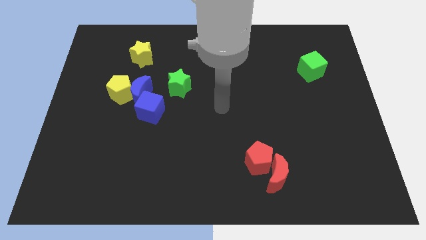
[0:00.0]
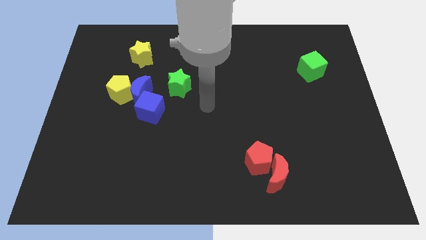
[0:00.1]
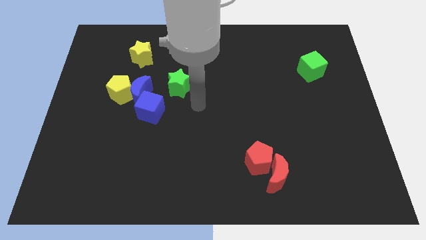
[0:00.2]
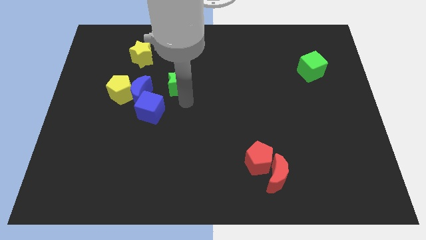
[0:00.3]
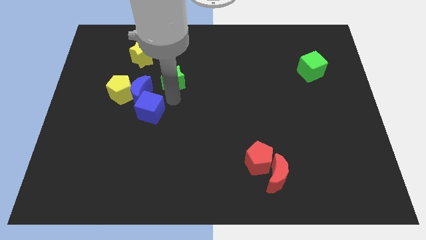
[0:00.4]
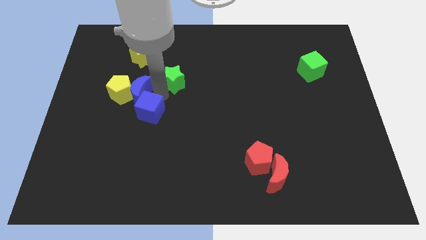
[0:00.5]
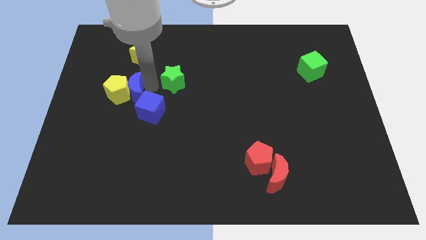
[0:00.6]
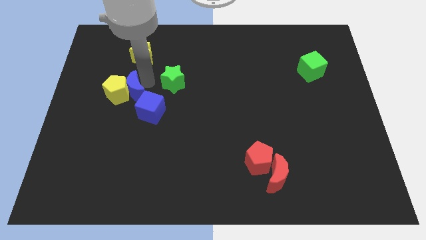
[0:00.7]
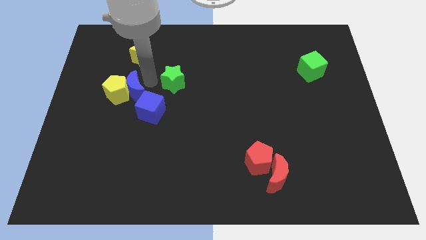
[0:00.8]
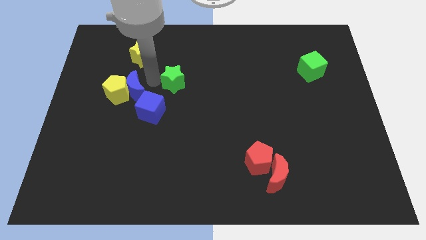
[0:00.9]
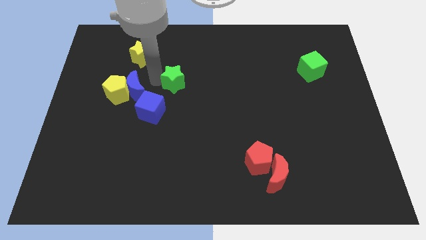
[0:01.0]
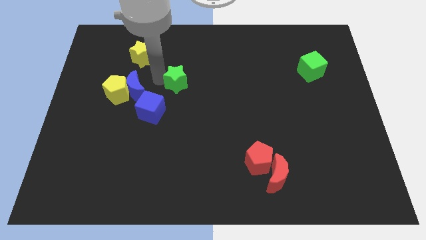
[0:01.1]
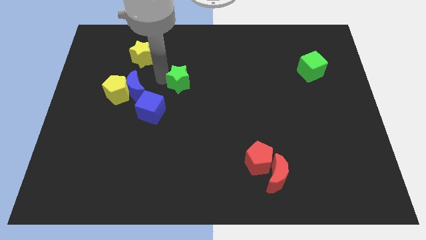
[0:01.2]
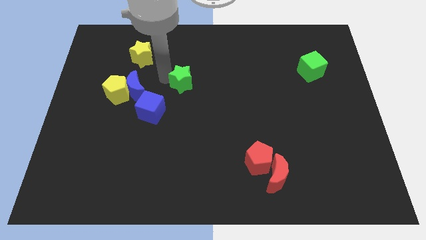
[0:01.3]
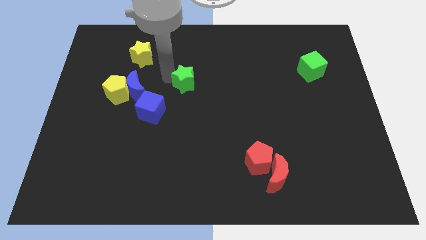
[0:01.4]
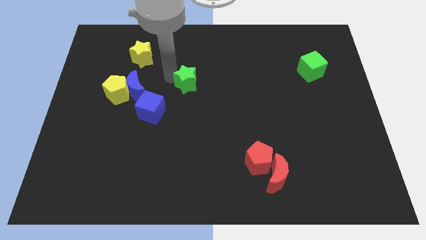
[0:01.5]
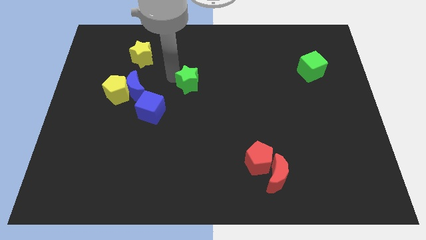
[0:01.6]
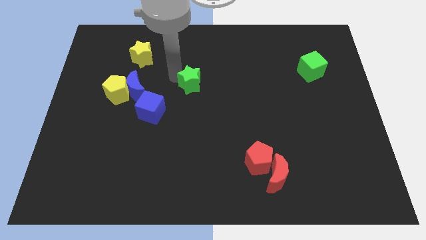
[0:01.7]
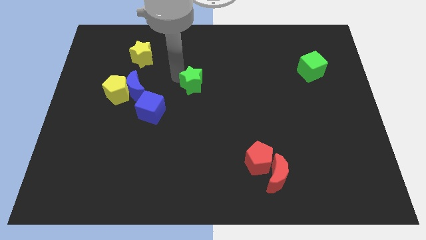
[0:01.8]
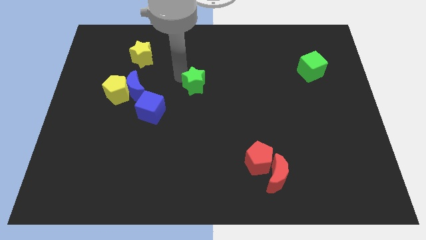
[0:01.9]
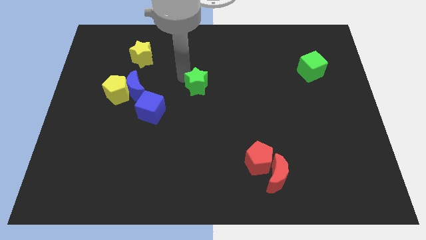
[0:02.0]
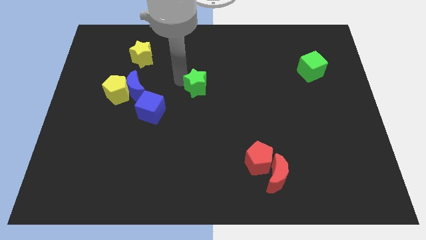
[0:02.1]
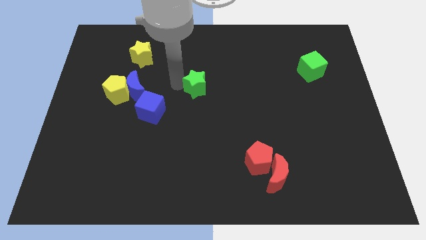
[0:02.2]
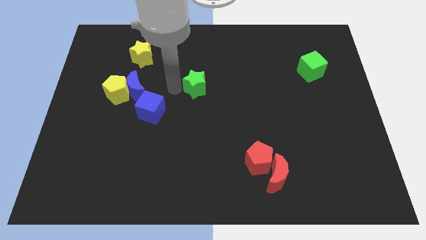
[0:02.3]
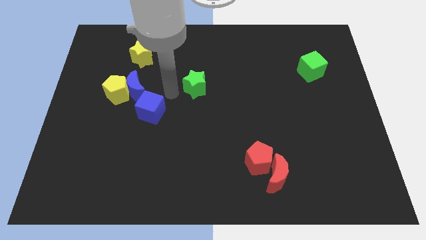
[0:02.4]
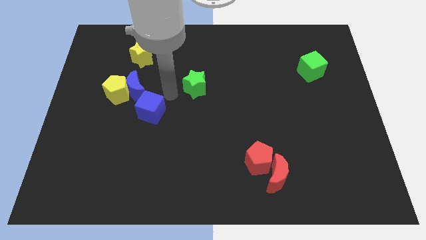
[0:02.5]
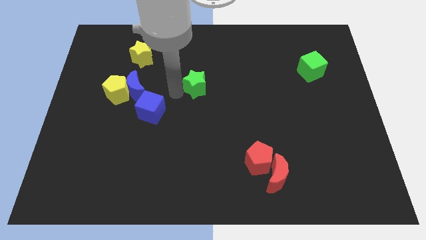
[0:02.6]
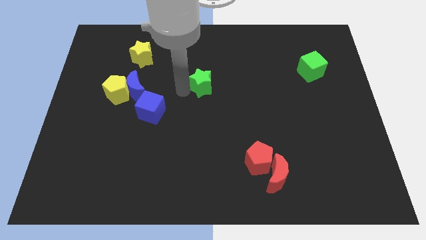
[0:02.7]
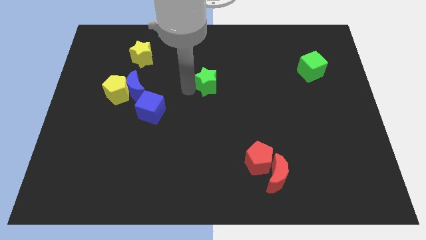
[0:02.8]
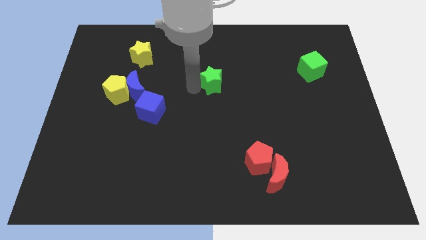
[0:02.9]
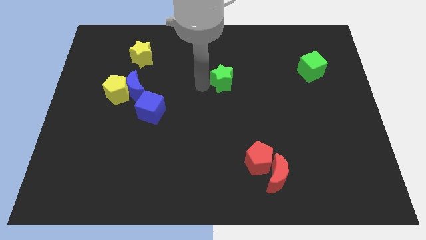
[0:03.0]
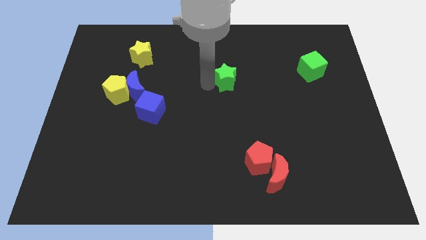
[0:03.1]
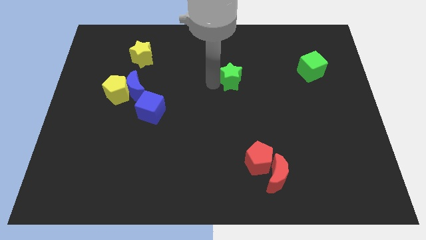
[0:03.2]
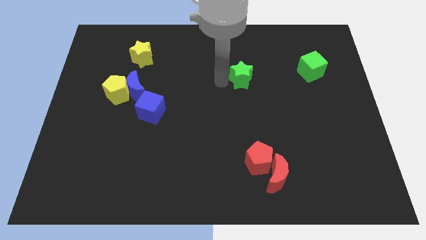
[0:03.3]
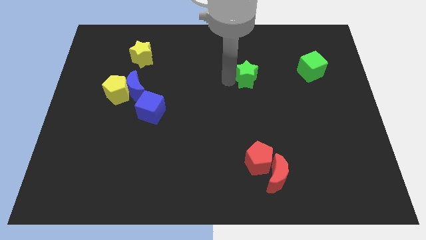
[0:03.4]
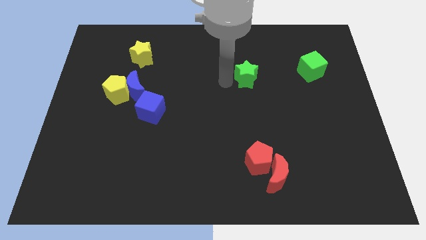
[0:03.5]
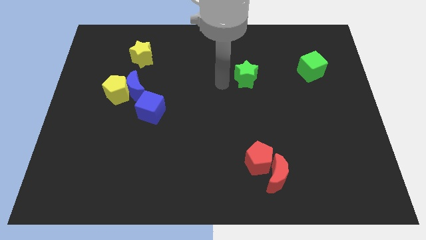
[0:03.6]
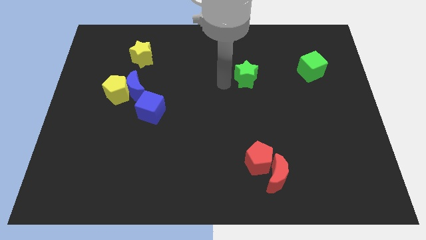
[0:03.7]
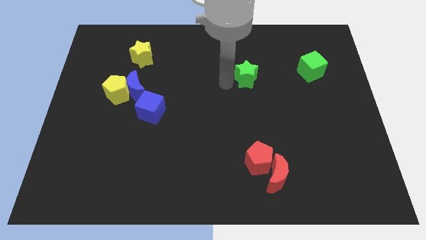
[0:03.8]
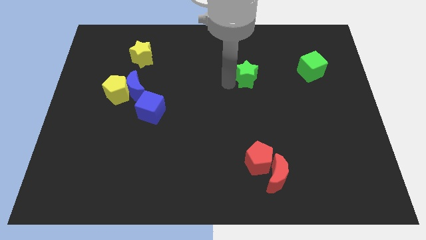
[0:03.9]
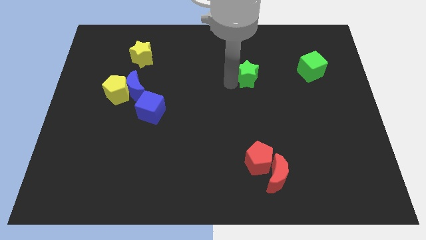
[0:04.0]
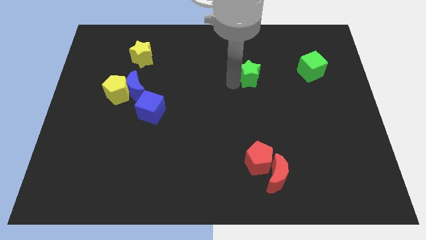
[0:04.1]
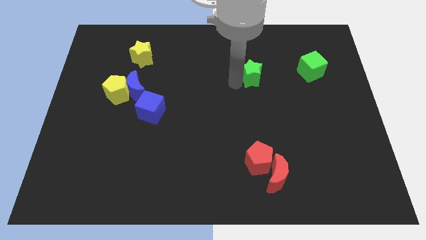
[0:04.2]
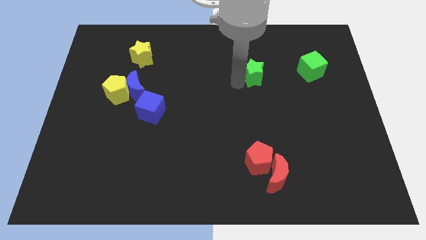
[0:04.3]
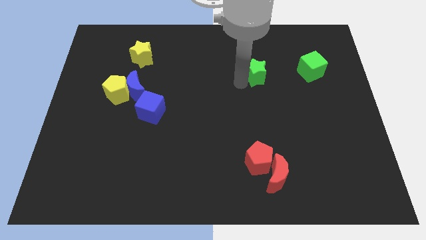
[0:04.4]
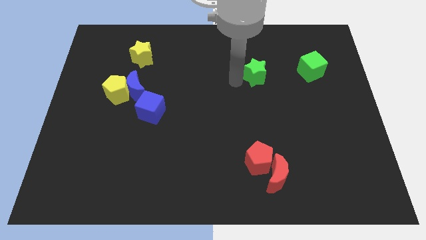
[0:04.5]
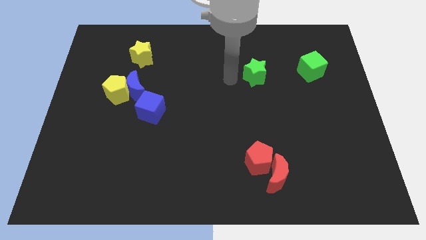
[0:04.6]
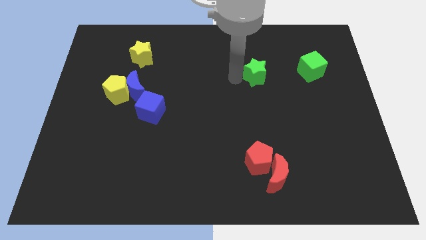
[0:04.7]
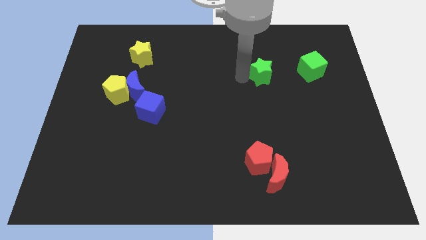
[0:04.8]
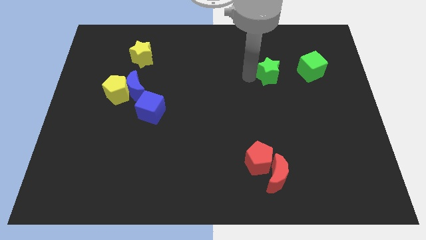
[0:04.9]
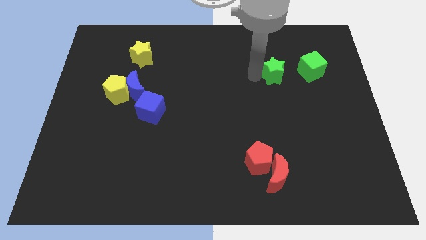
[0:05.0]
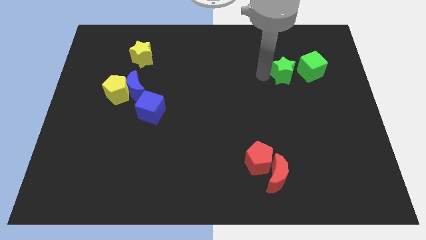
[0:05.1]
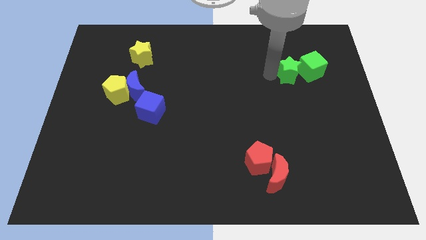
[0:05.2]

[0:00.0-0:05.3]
move the green star next to the green cube

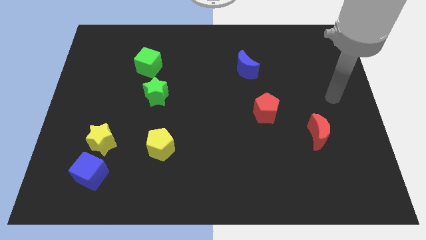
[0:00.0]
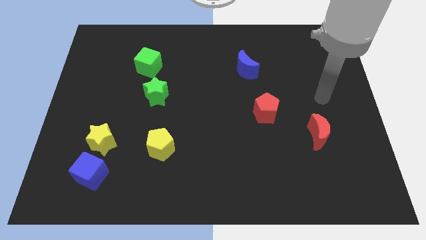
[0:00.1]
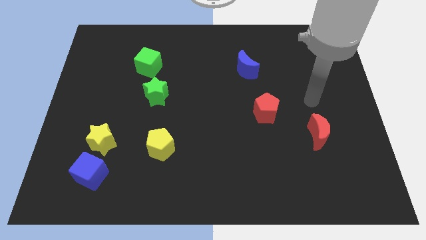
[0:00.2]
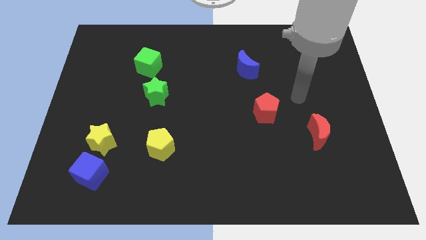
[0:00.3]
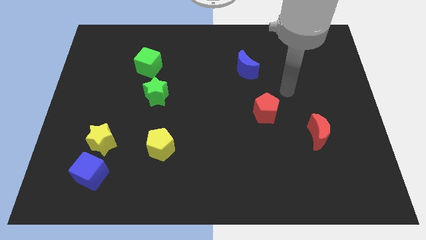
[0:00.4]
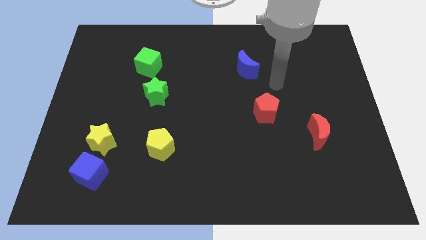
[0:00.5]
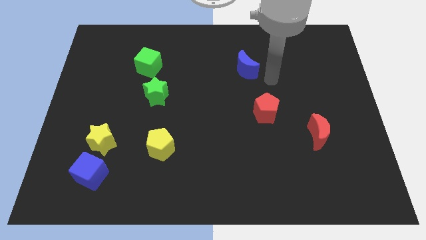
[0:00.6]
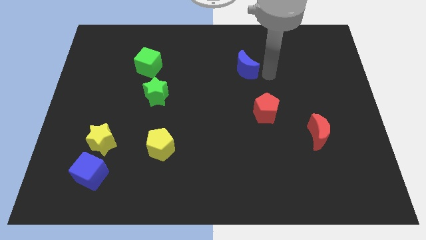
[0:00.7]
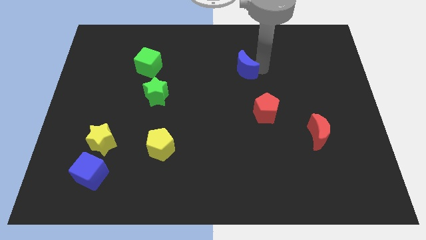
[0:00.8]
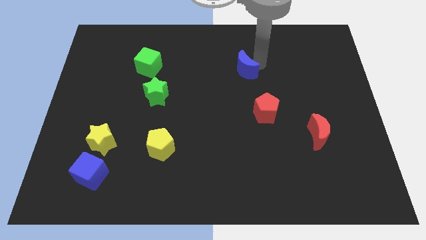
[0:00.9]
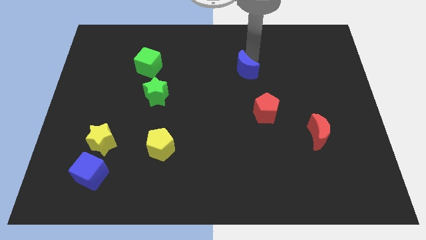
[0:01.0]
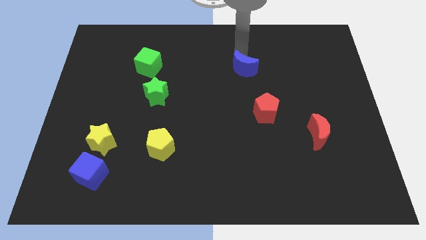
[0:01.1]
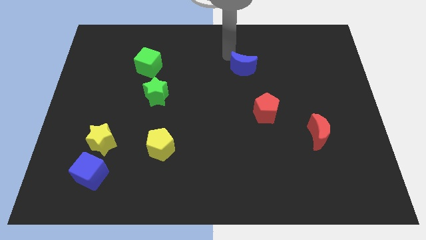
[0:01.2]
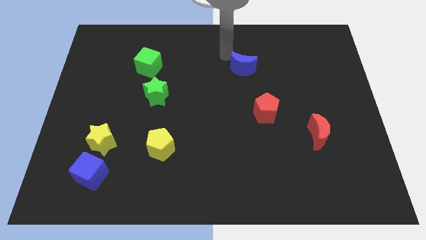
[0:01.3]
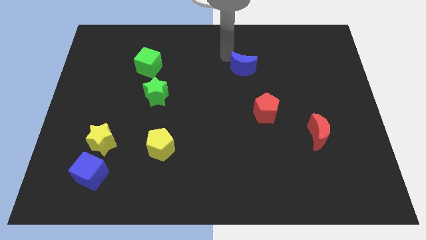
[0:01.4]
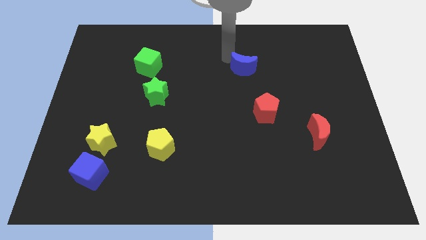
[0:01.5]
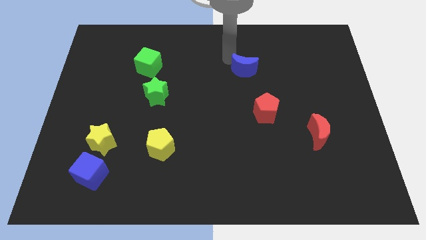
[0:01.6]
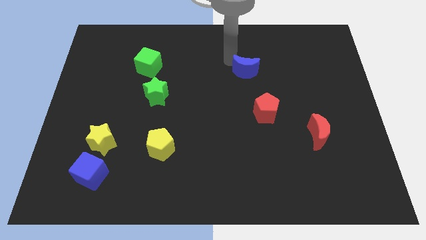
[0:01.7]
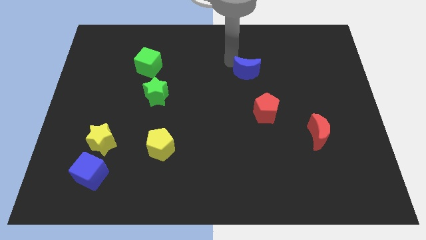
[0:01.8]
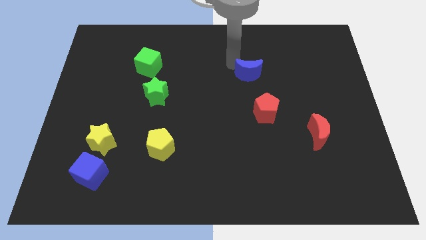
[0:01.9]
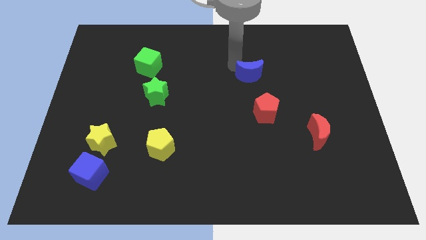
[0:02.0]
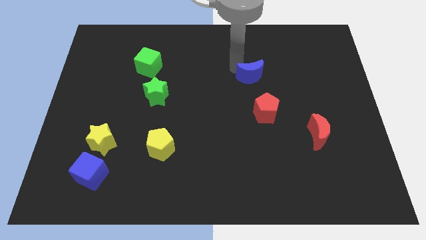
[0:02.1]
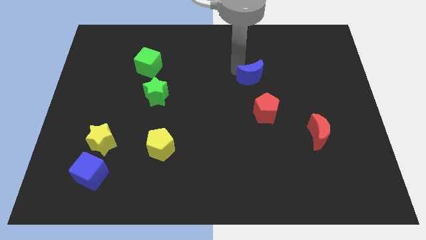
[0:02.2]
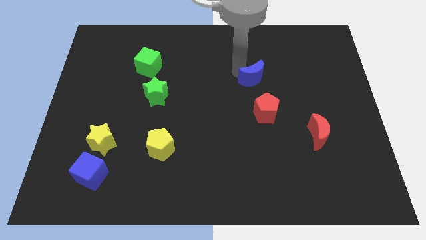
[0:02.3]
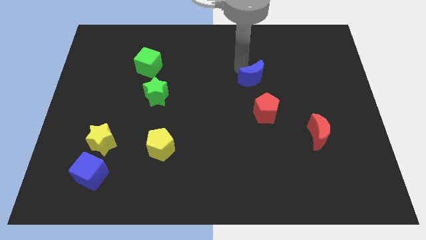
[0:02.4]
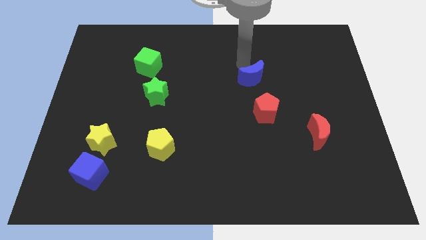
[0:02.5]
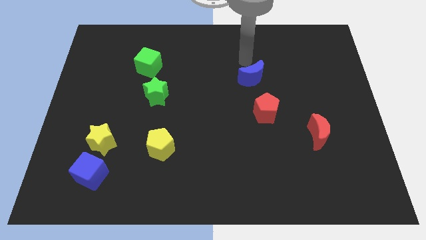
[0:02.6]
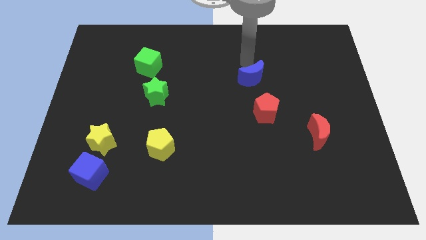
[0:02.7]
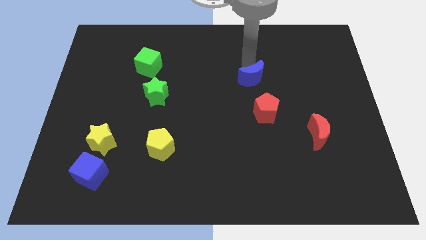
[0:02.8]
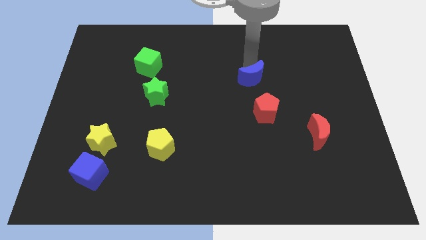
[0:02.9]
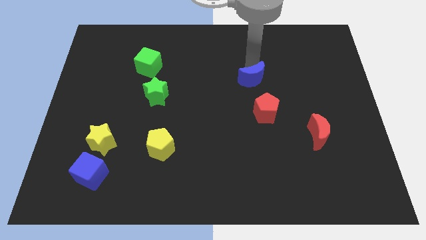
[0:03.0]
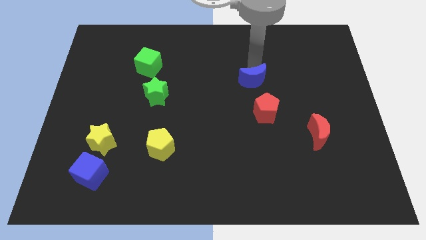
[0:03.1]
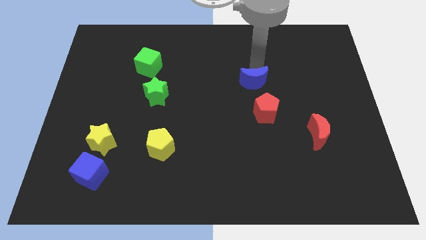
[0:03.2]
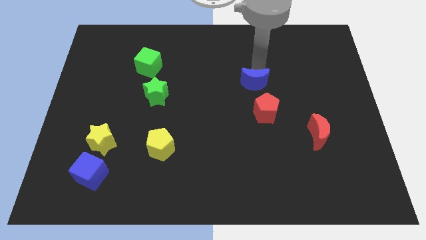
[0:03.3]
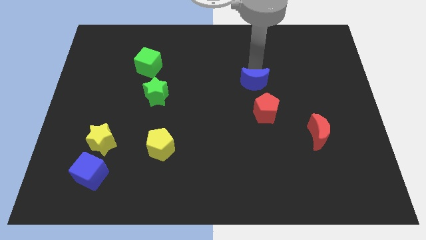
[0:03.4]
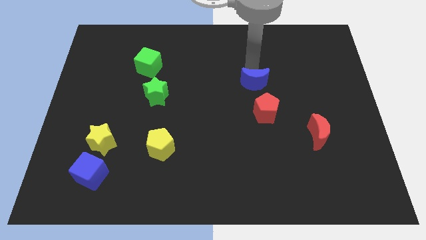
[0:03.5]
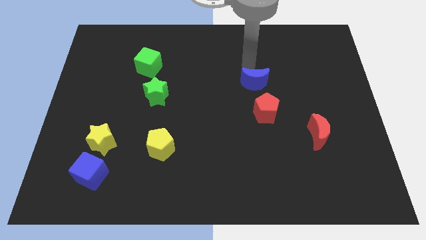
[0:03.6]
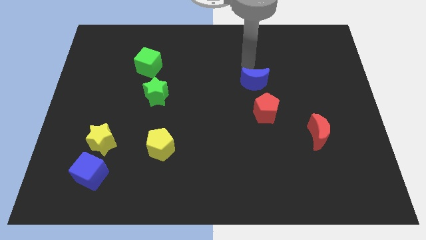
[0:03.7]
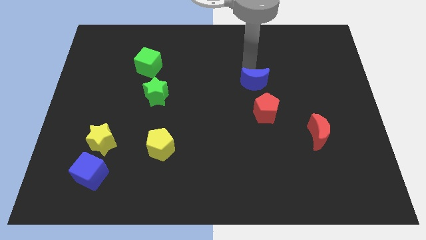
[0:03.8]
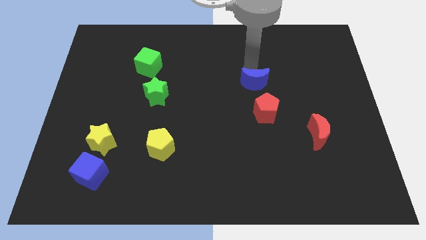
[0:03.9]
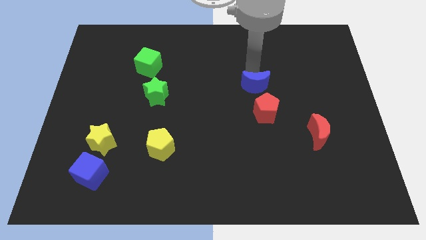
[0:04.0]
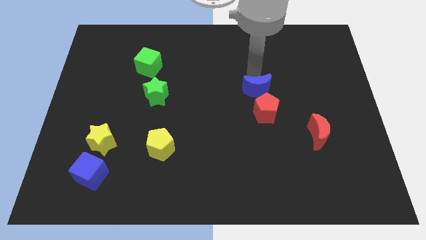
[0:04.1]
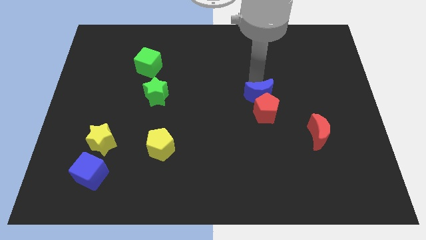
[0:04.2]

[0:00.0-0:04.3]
push the blue moon close to the red pentagon
